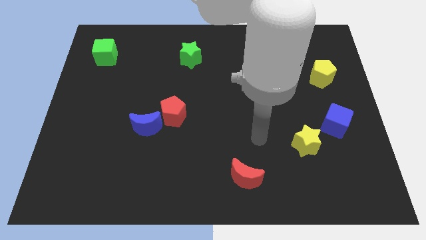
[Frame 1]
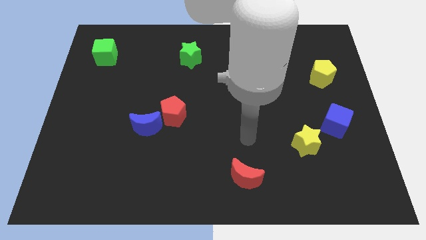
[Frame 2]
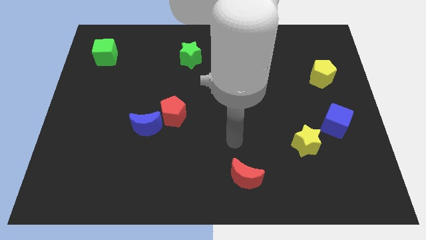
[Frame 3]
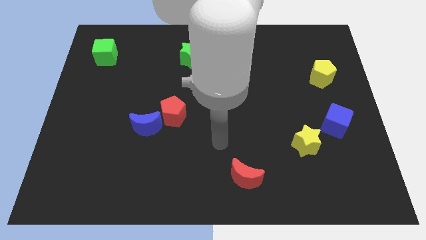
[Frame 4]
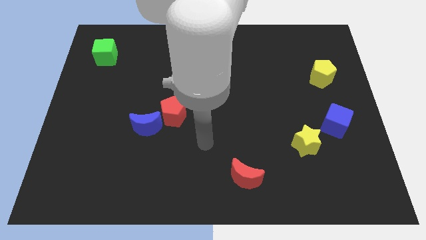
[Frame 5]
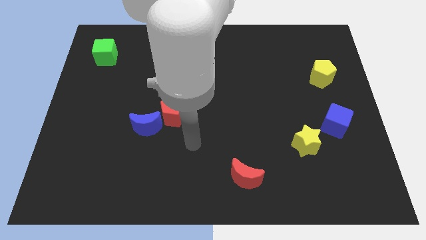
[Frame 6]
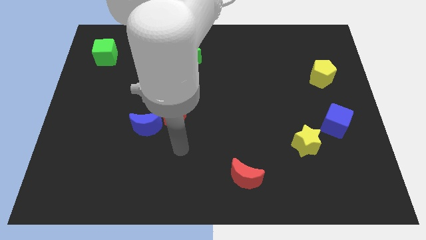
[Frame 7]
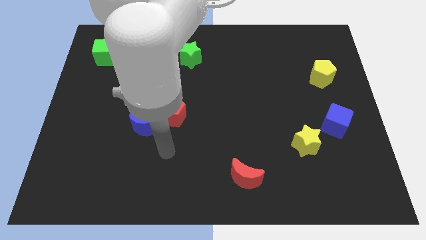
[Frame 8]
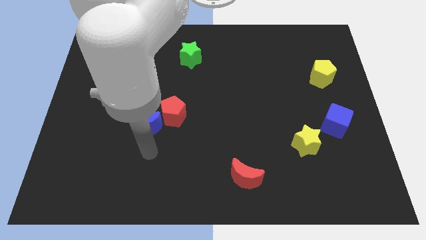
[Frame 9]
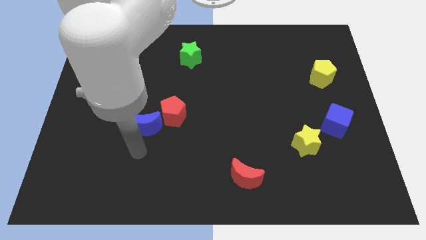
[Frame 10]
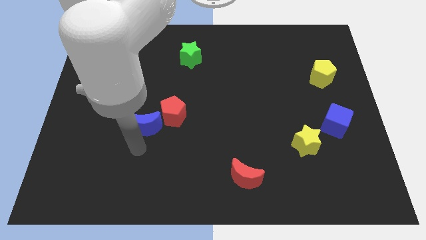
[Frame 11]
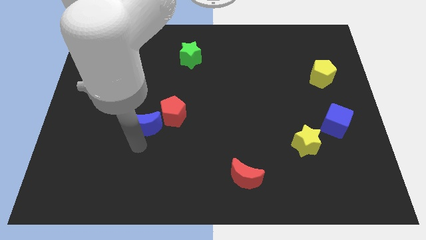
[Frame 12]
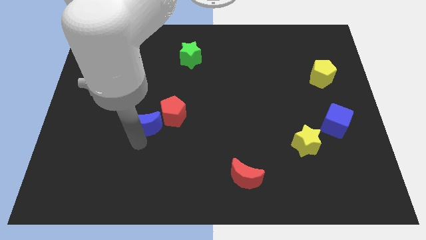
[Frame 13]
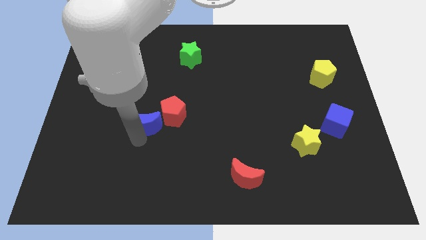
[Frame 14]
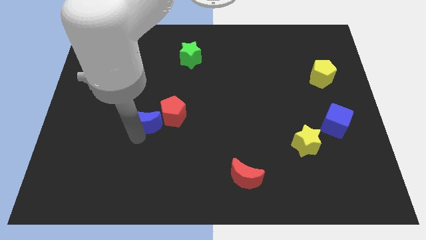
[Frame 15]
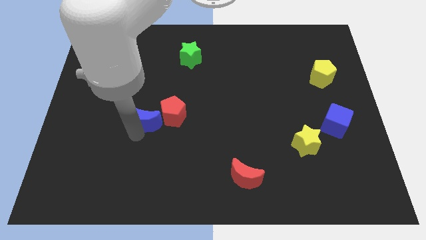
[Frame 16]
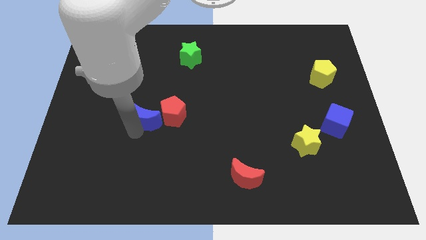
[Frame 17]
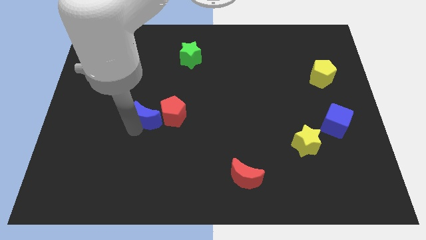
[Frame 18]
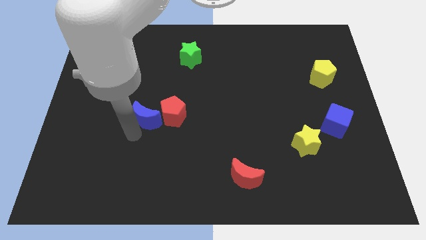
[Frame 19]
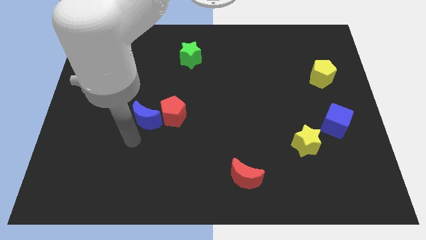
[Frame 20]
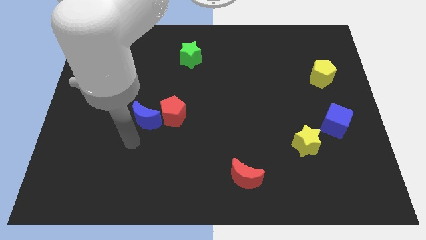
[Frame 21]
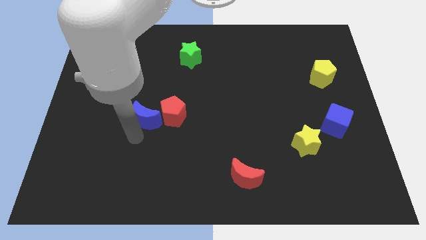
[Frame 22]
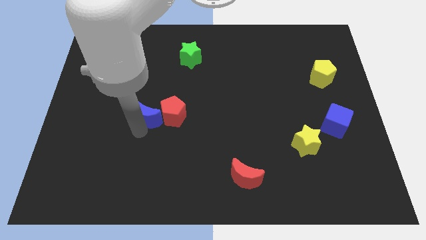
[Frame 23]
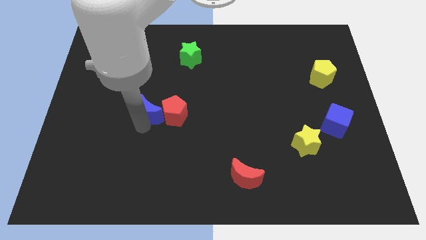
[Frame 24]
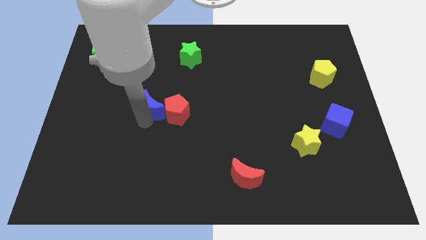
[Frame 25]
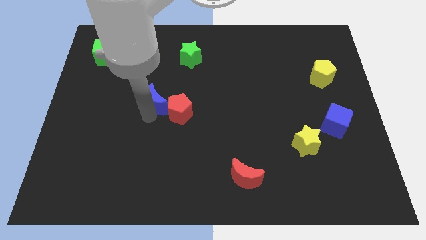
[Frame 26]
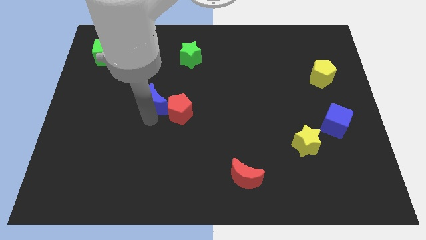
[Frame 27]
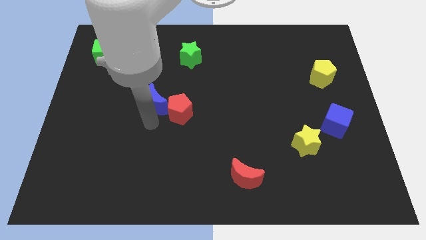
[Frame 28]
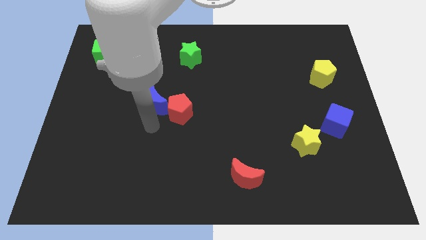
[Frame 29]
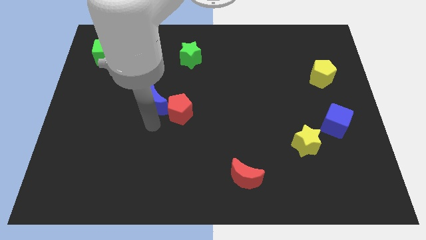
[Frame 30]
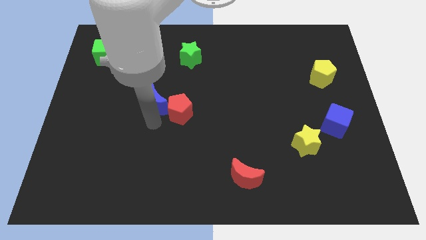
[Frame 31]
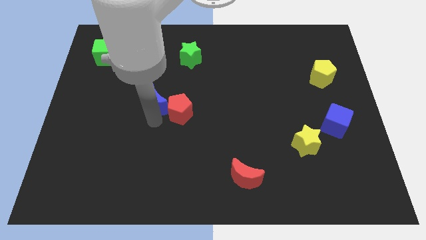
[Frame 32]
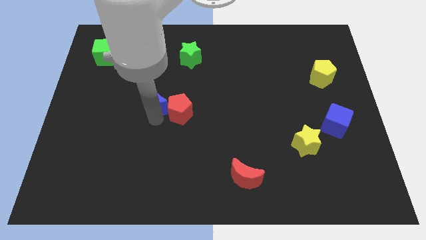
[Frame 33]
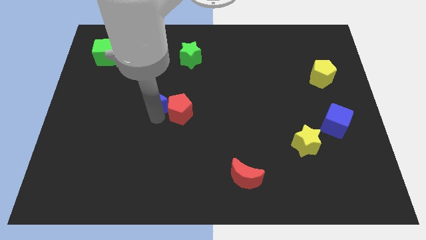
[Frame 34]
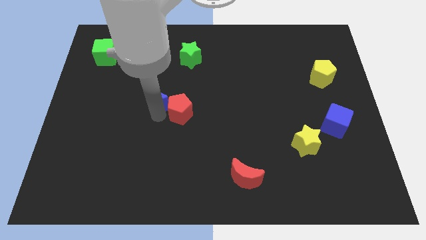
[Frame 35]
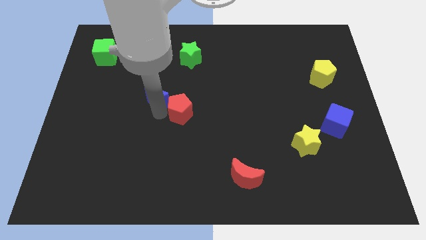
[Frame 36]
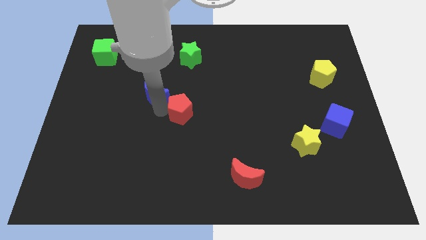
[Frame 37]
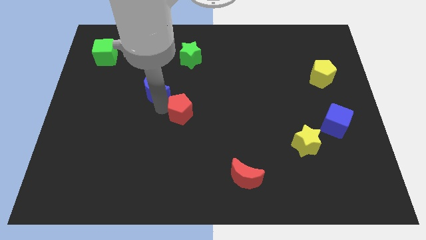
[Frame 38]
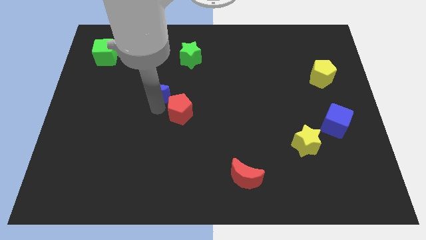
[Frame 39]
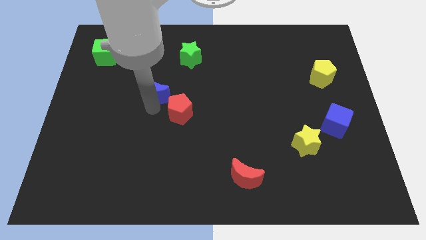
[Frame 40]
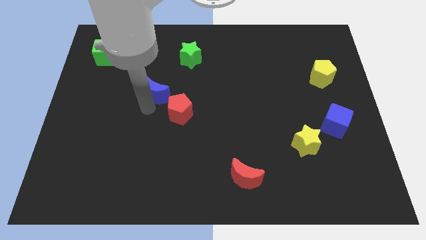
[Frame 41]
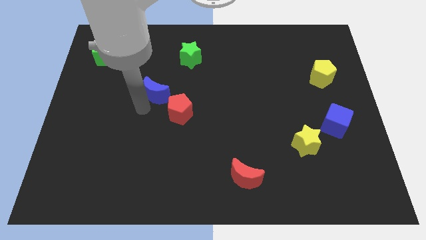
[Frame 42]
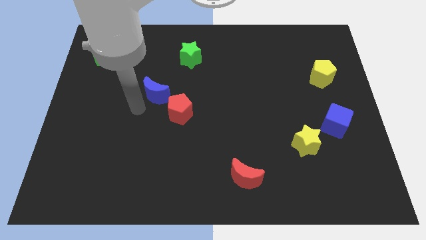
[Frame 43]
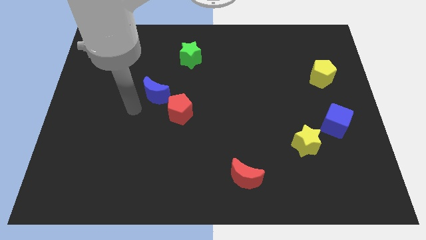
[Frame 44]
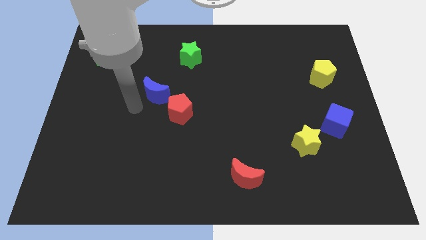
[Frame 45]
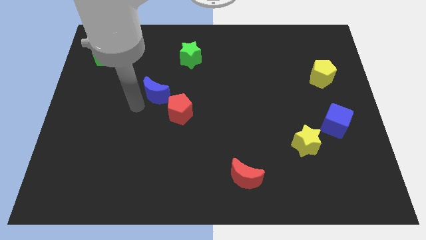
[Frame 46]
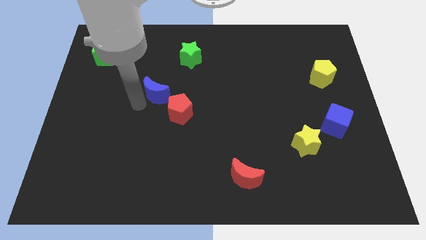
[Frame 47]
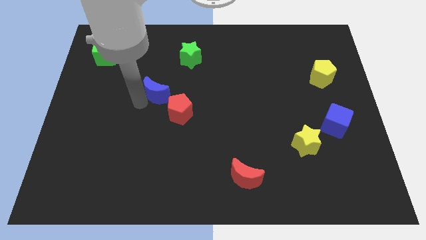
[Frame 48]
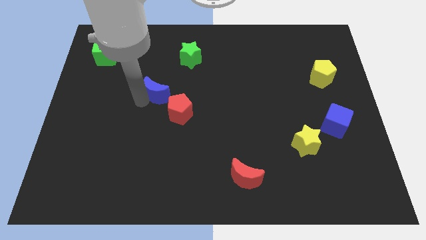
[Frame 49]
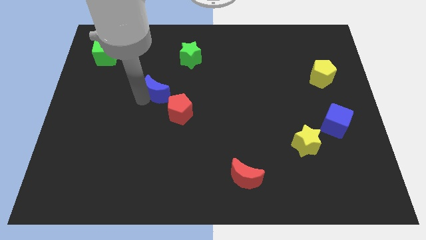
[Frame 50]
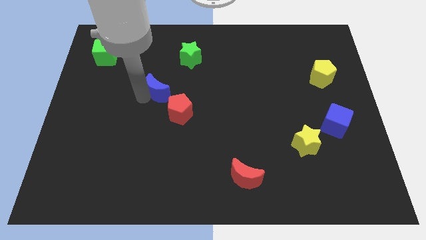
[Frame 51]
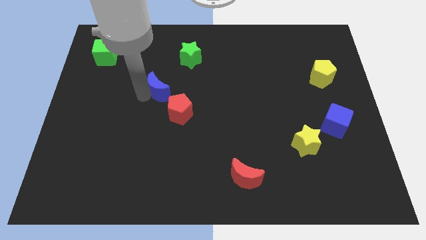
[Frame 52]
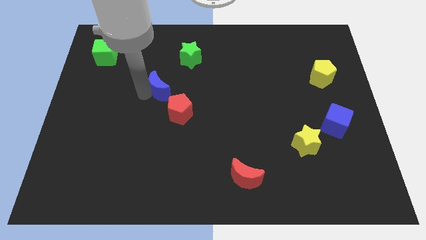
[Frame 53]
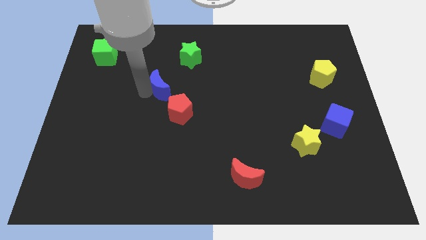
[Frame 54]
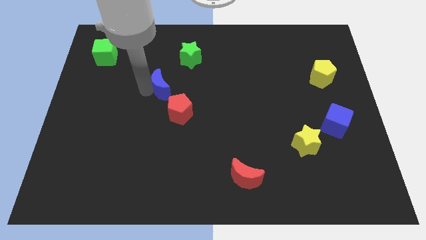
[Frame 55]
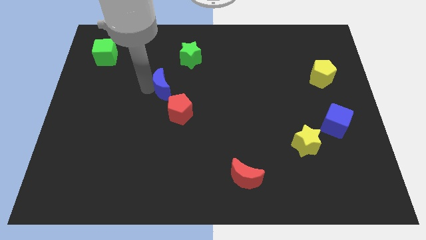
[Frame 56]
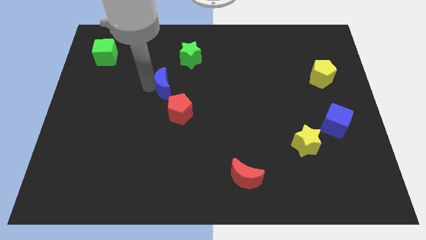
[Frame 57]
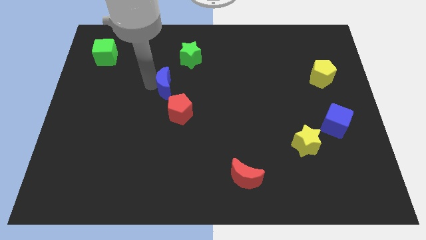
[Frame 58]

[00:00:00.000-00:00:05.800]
move the blue moon to the middle
